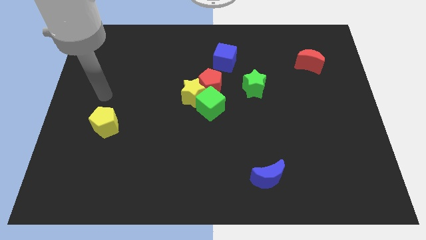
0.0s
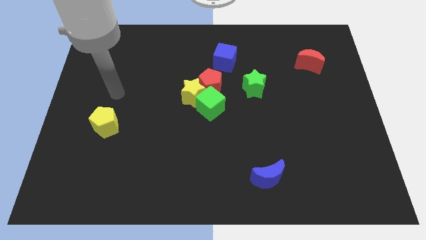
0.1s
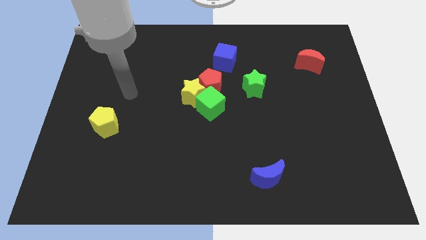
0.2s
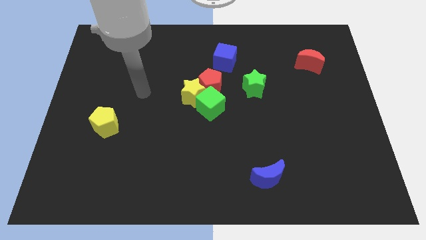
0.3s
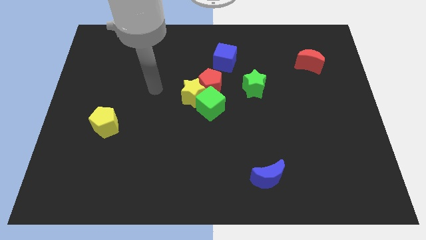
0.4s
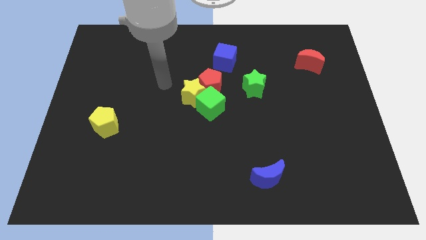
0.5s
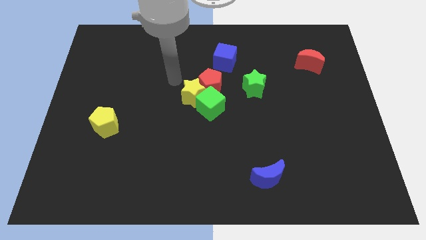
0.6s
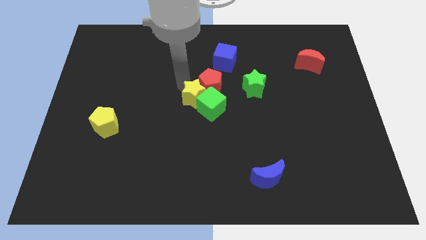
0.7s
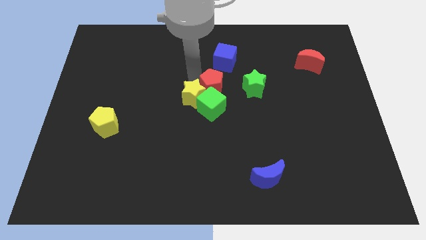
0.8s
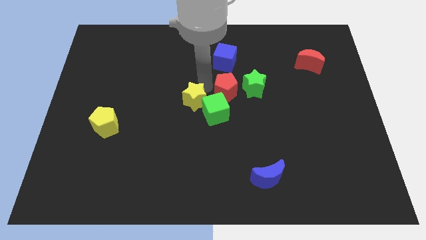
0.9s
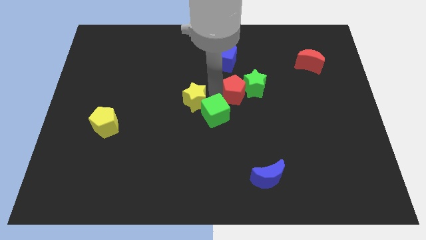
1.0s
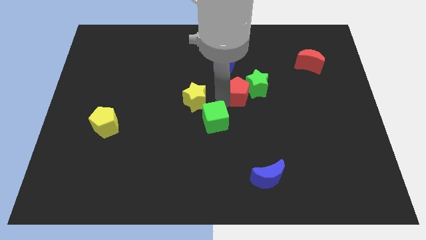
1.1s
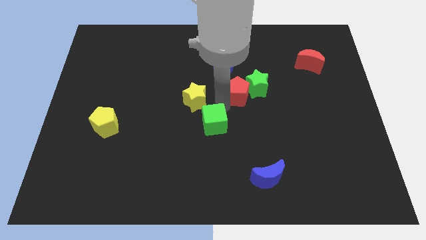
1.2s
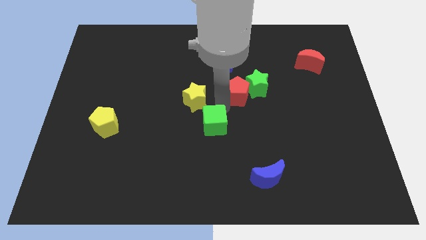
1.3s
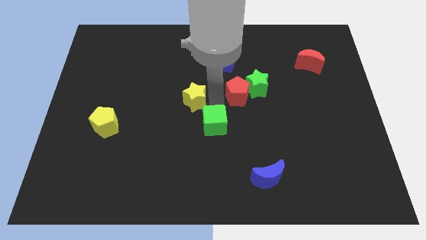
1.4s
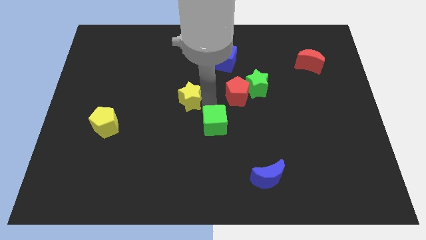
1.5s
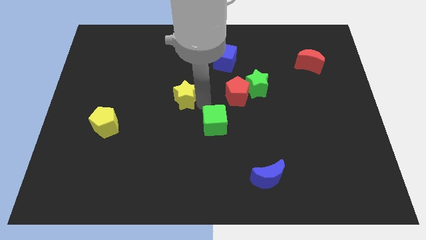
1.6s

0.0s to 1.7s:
pull the yellow star apart from the green cube and red pentagon

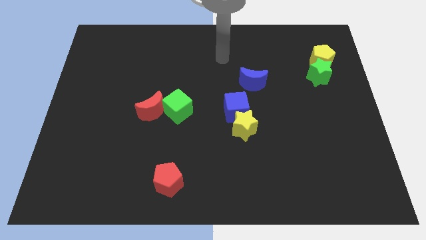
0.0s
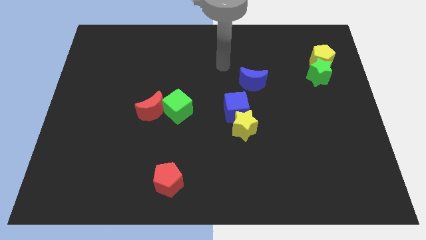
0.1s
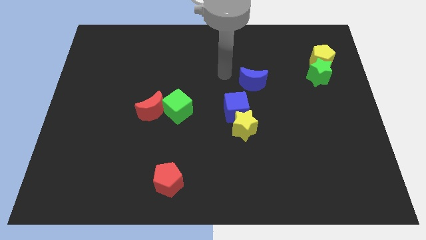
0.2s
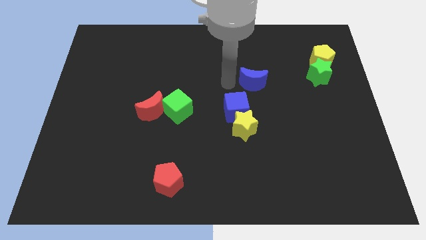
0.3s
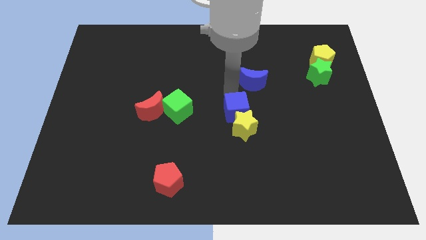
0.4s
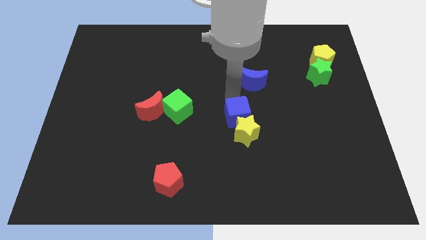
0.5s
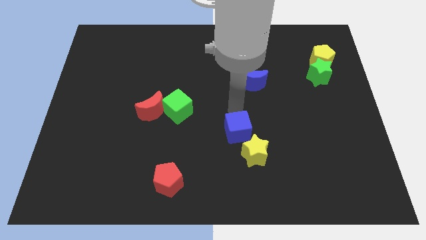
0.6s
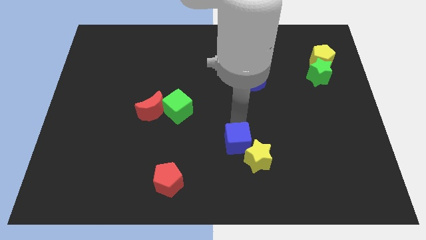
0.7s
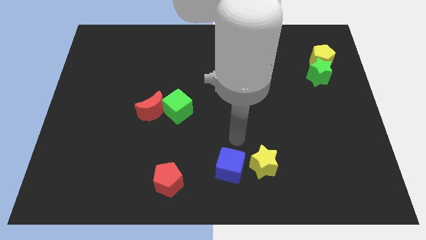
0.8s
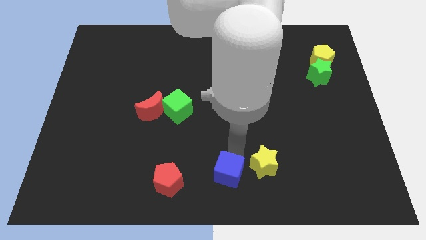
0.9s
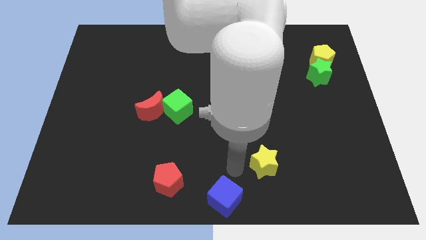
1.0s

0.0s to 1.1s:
pull the yellow star apart from the blue cube

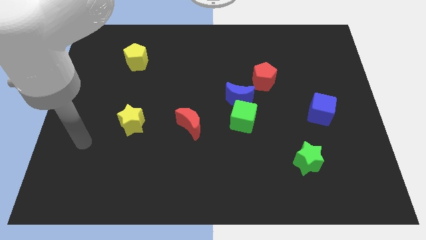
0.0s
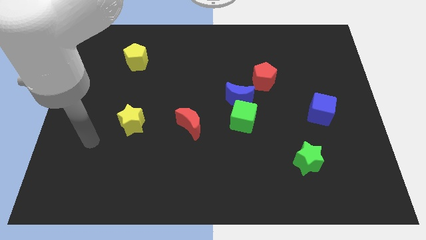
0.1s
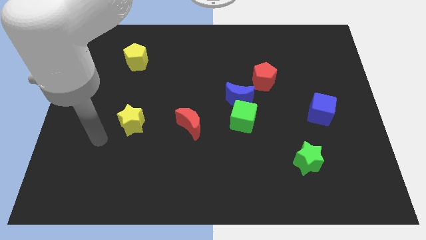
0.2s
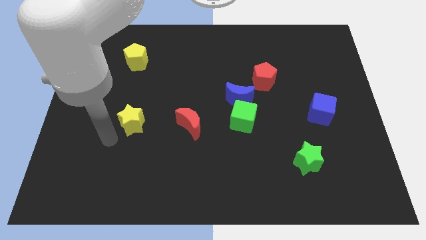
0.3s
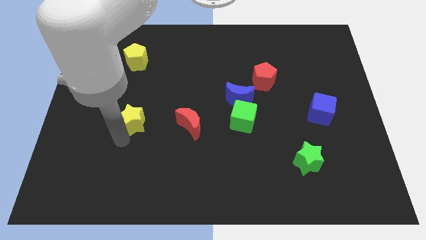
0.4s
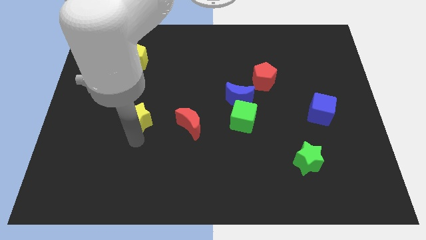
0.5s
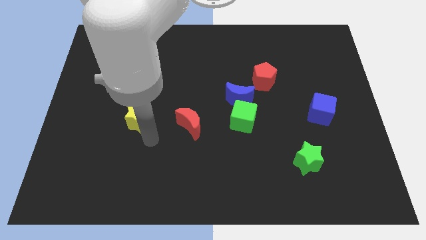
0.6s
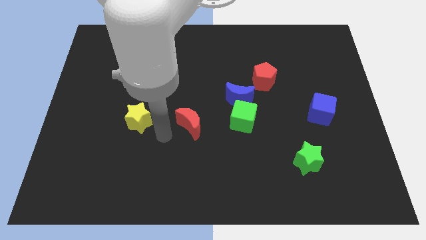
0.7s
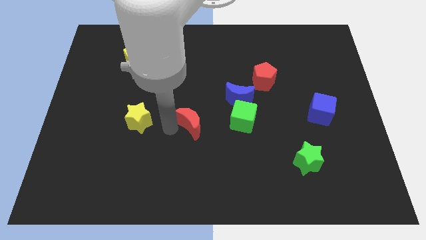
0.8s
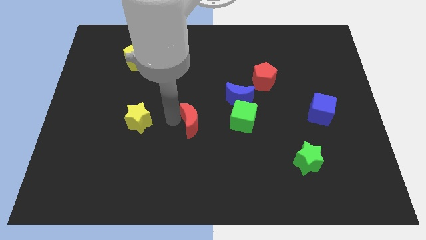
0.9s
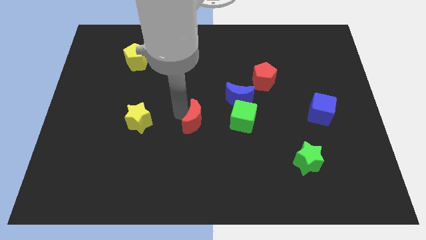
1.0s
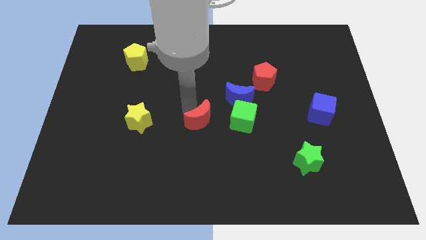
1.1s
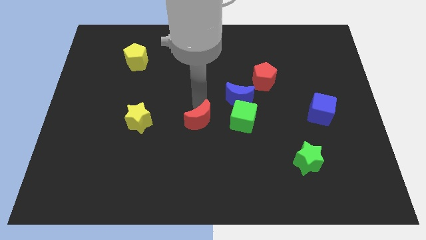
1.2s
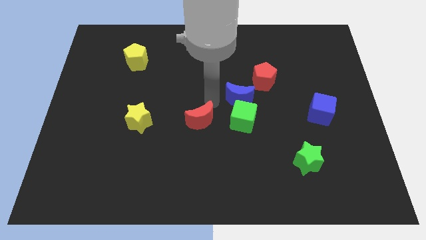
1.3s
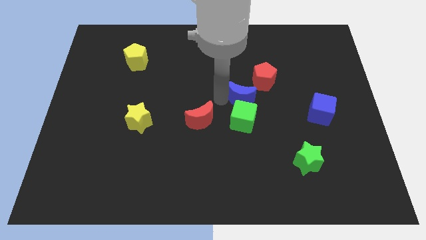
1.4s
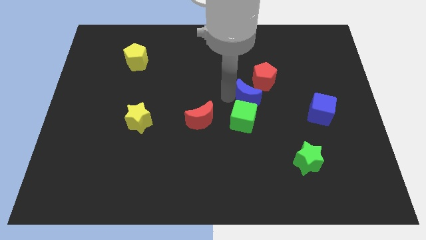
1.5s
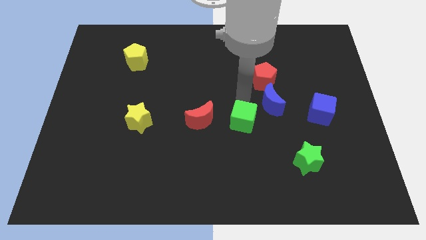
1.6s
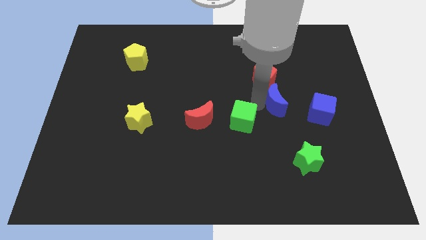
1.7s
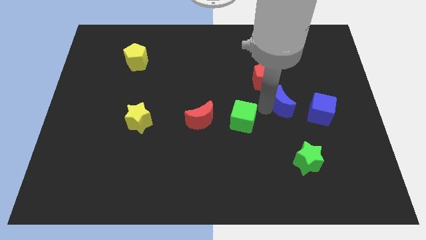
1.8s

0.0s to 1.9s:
separate the green cube from the blue moon

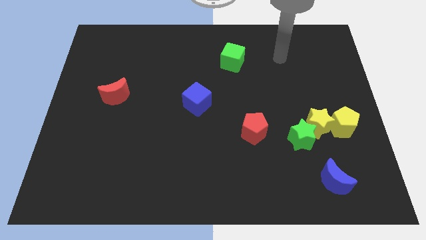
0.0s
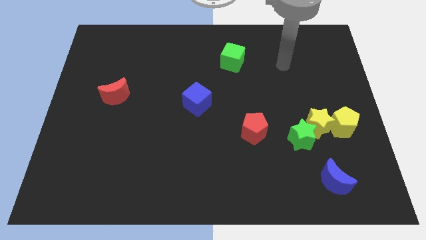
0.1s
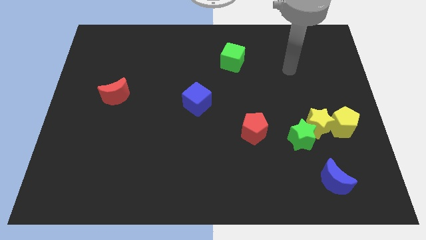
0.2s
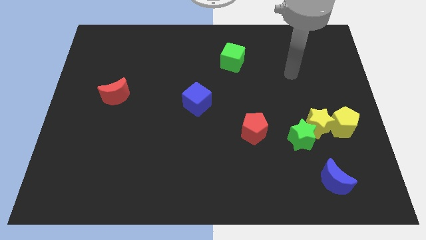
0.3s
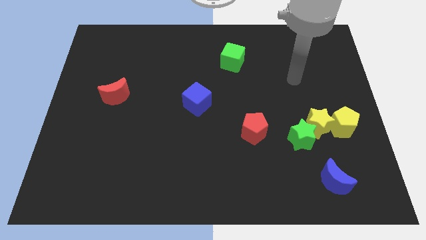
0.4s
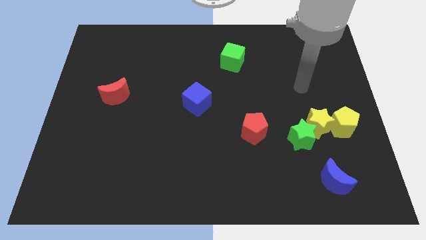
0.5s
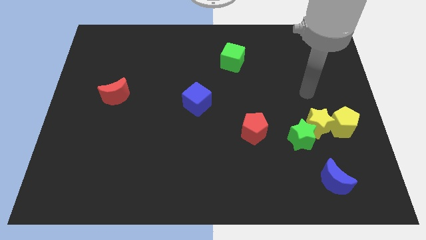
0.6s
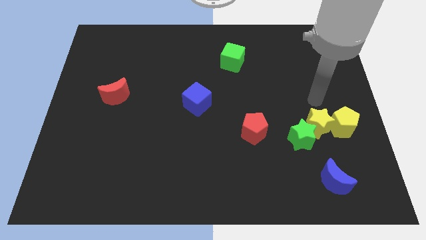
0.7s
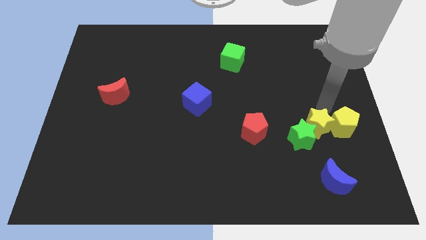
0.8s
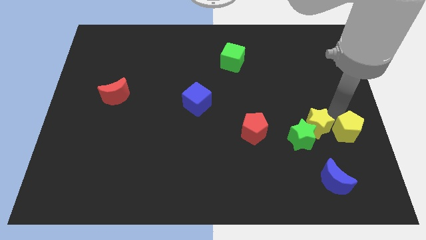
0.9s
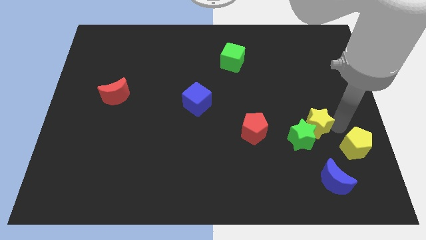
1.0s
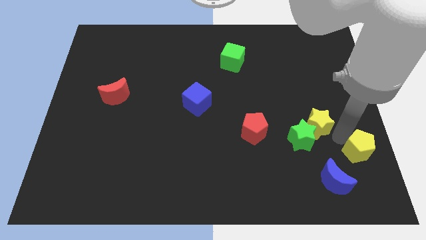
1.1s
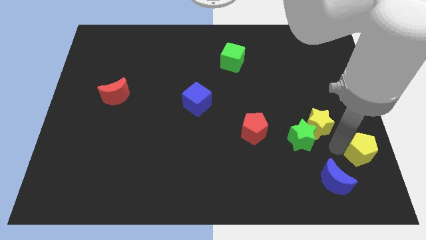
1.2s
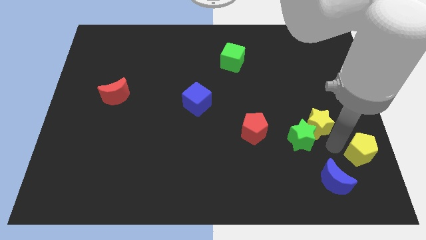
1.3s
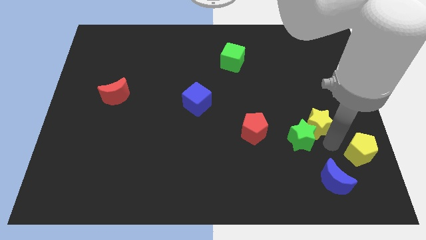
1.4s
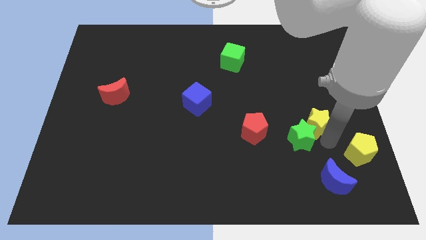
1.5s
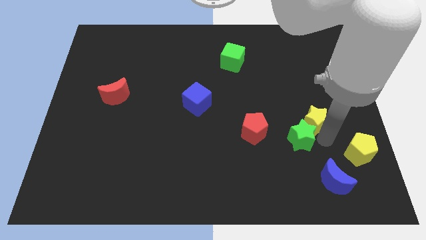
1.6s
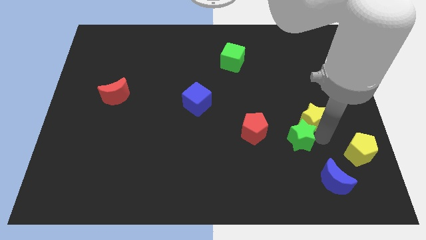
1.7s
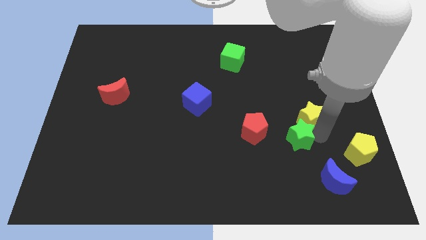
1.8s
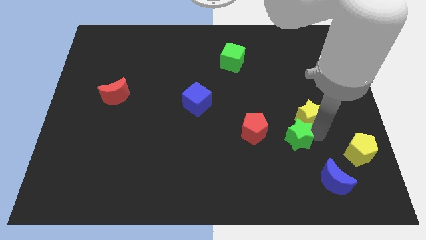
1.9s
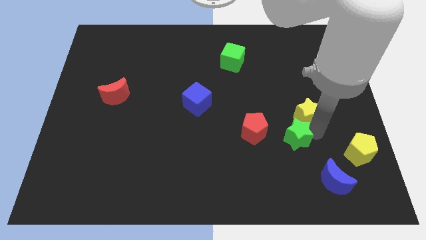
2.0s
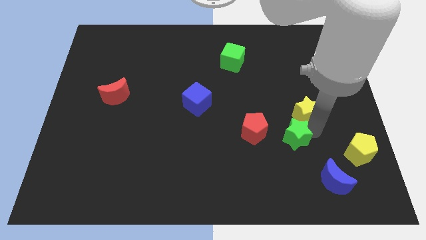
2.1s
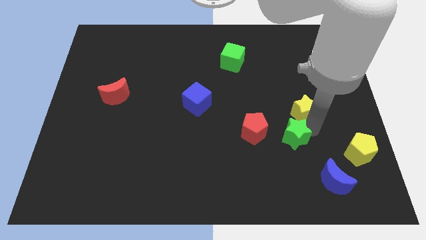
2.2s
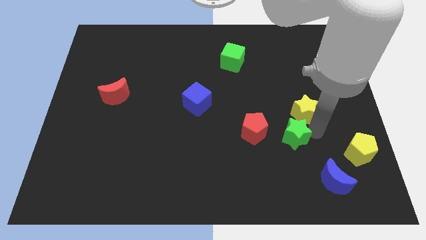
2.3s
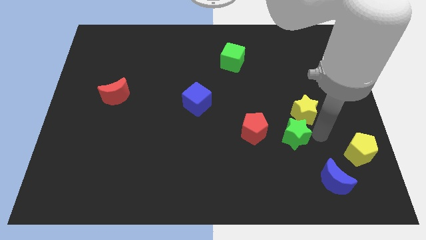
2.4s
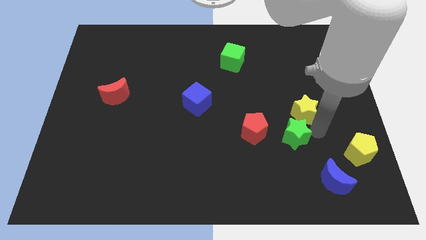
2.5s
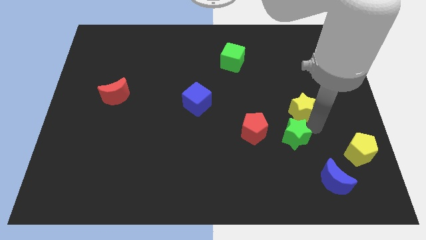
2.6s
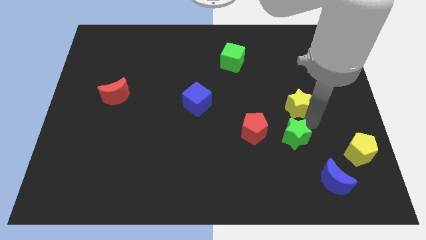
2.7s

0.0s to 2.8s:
separate the yellow star from the green star and yellow pentagon

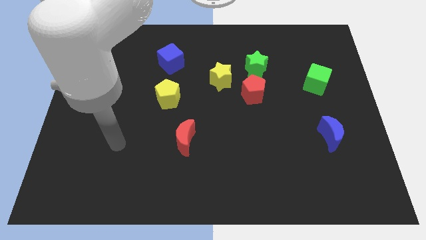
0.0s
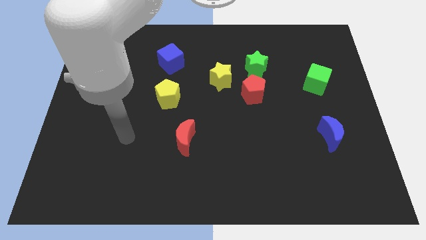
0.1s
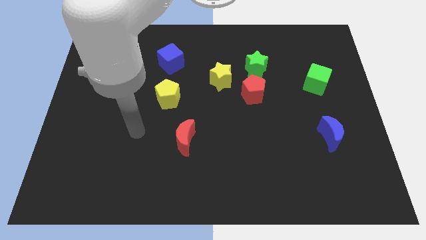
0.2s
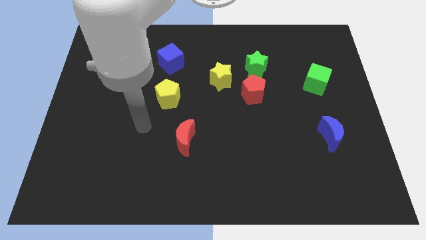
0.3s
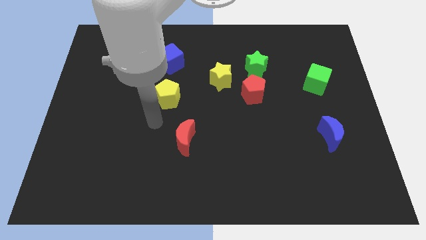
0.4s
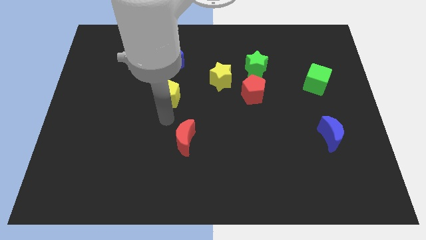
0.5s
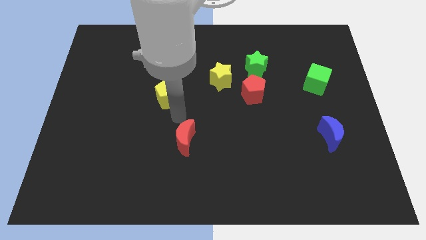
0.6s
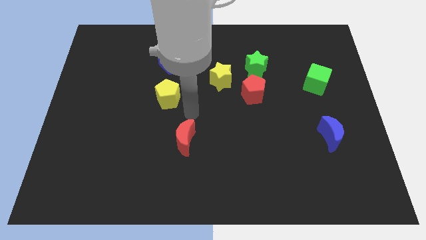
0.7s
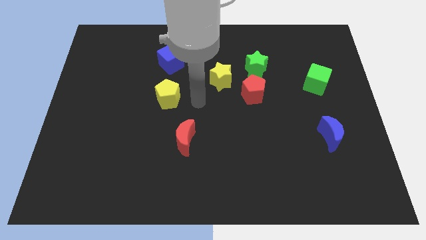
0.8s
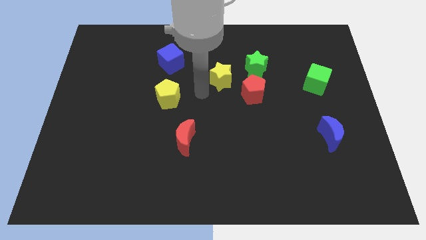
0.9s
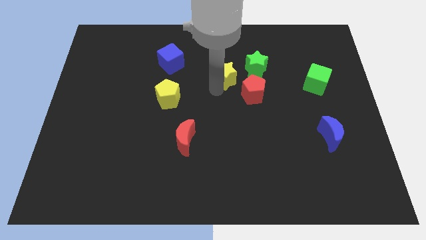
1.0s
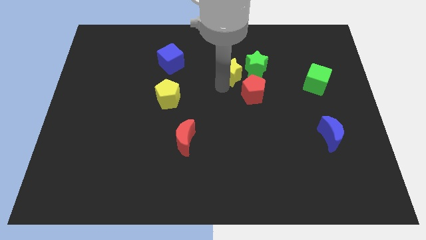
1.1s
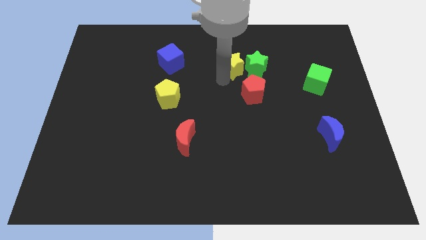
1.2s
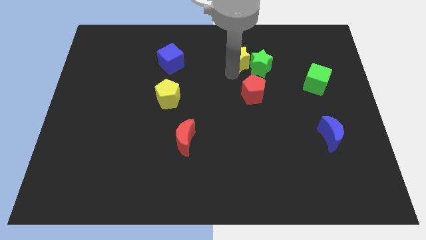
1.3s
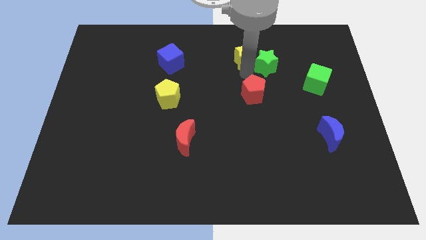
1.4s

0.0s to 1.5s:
move the red pentagon away from the green star and yellow star

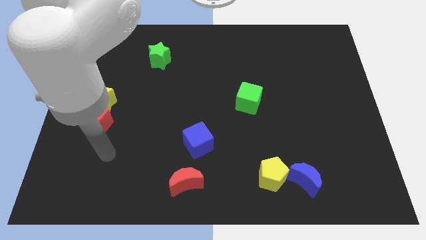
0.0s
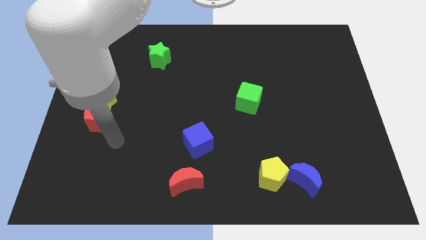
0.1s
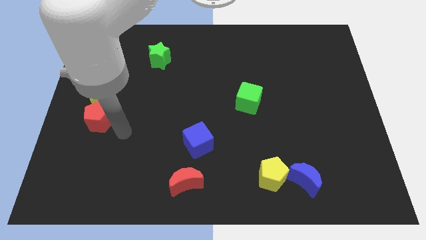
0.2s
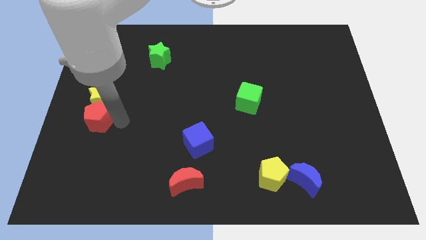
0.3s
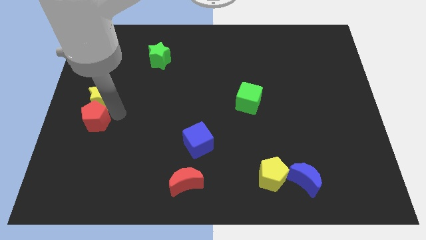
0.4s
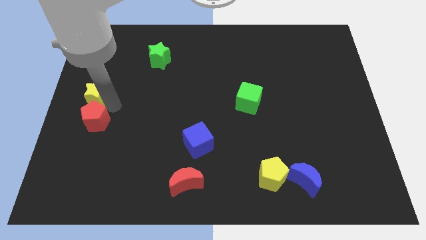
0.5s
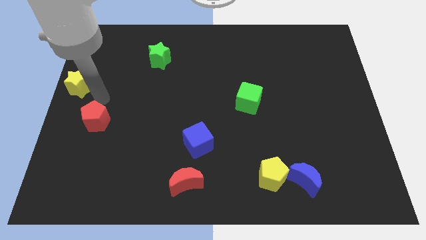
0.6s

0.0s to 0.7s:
separate the red pentagon from the yellow star
